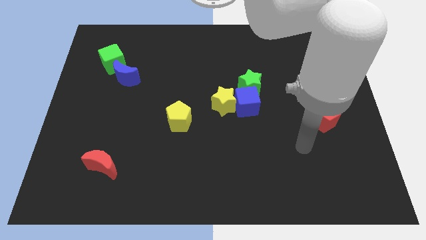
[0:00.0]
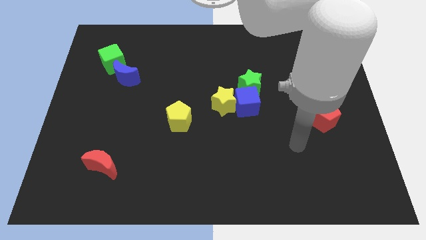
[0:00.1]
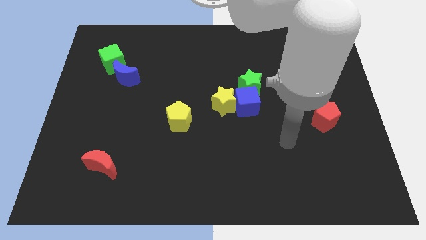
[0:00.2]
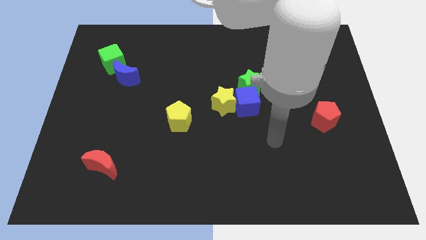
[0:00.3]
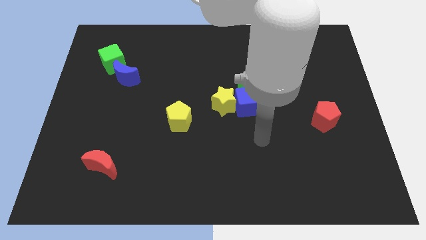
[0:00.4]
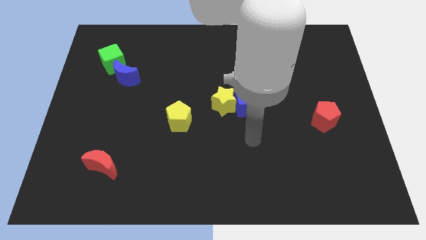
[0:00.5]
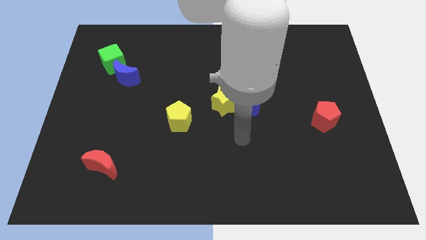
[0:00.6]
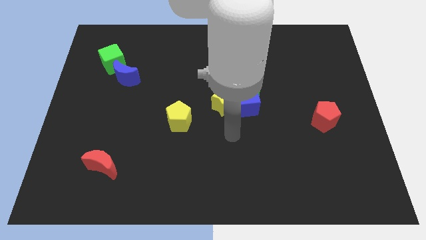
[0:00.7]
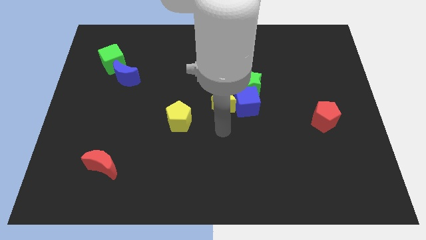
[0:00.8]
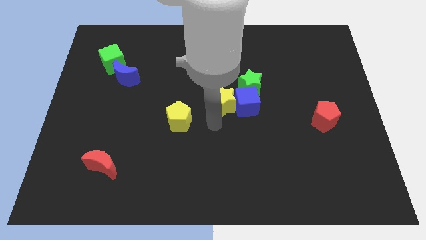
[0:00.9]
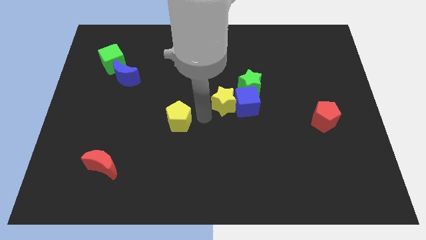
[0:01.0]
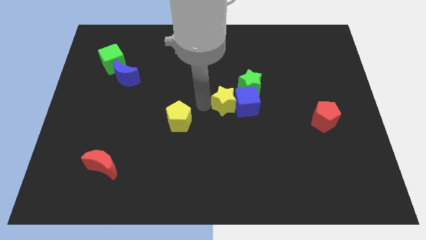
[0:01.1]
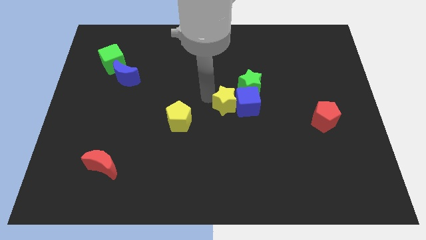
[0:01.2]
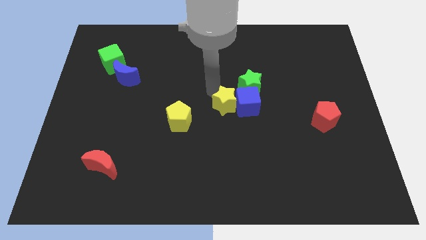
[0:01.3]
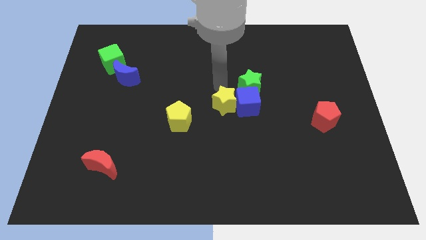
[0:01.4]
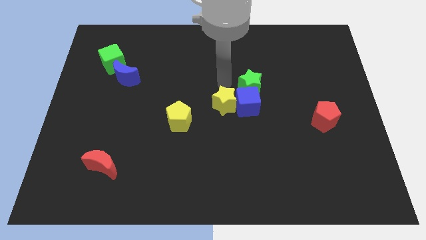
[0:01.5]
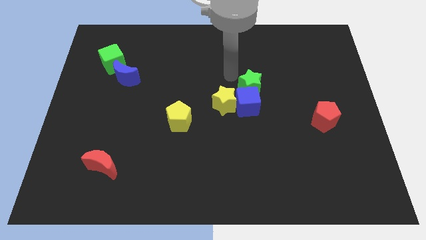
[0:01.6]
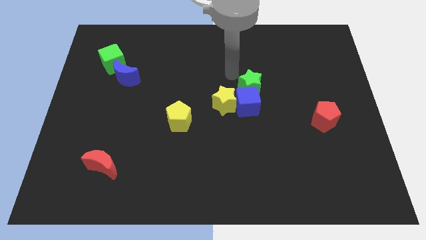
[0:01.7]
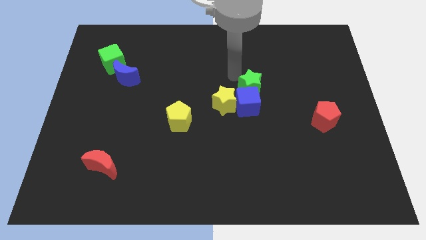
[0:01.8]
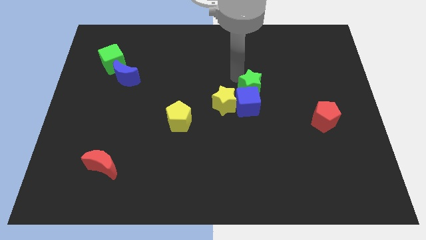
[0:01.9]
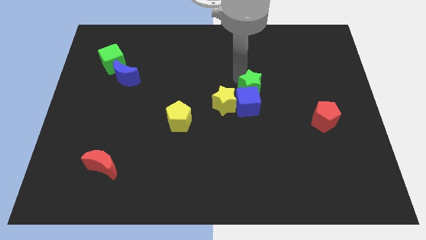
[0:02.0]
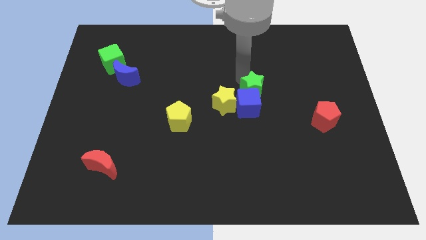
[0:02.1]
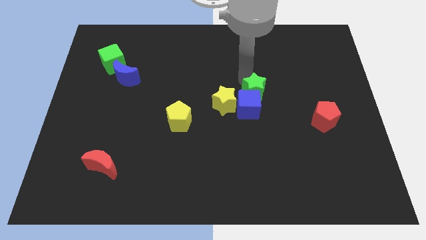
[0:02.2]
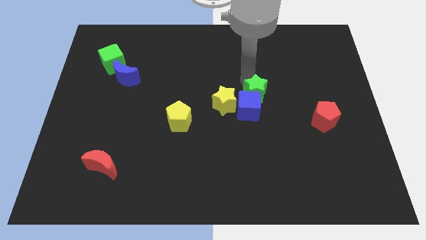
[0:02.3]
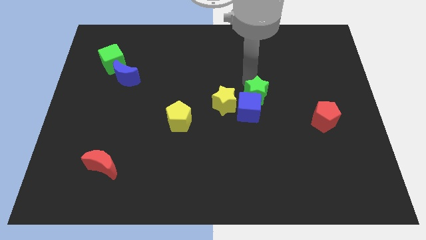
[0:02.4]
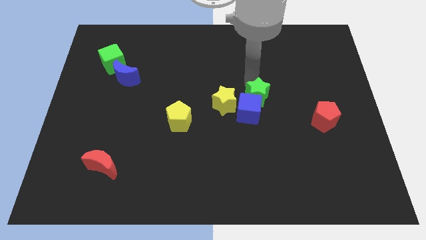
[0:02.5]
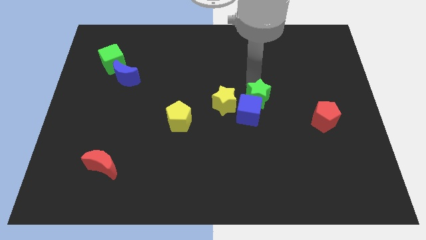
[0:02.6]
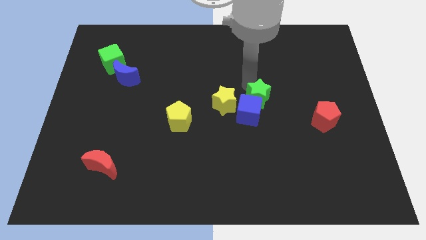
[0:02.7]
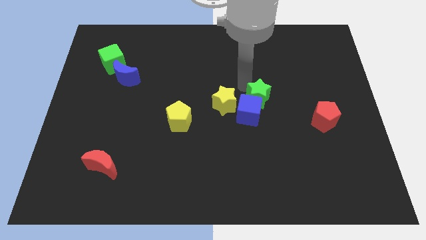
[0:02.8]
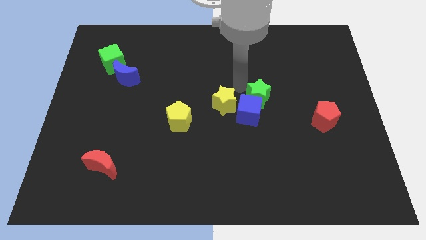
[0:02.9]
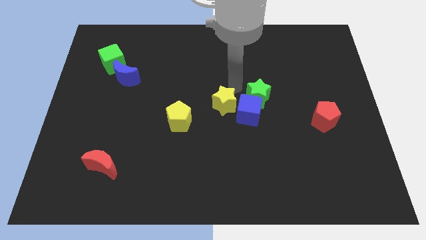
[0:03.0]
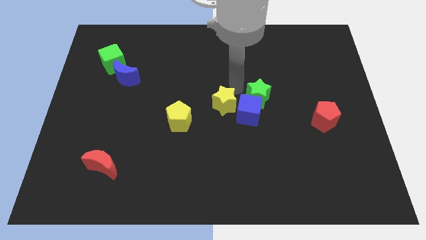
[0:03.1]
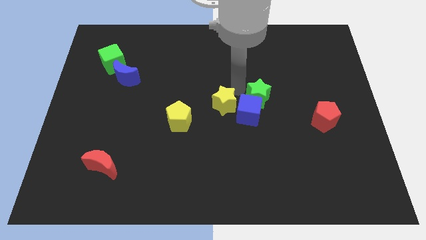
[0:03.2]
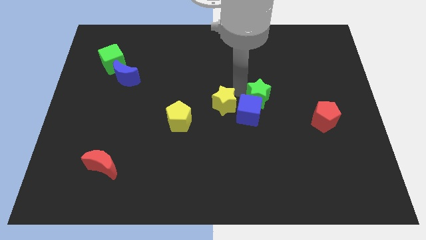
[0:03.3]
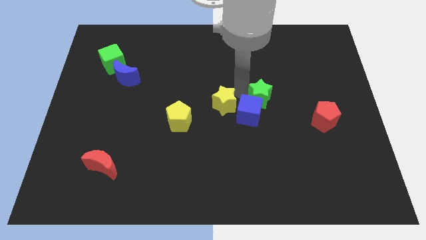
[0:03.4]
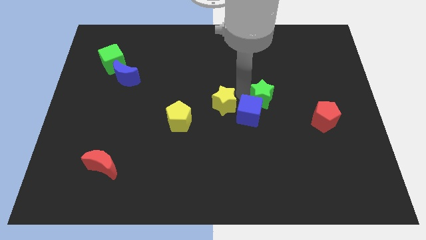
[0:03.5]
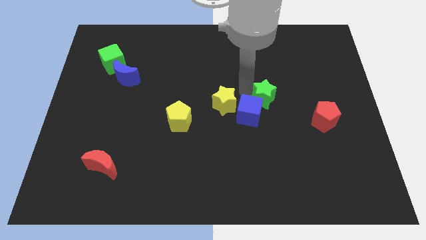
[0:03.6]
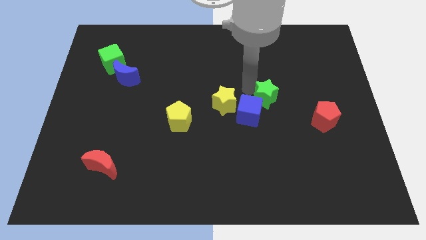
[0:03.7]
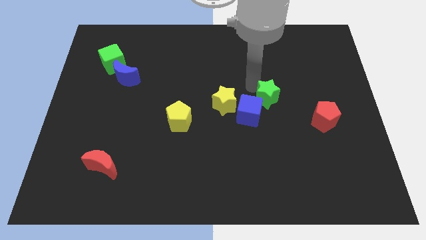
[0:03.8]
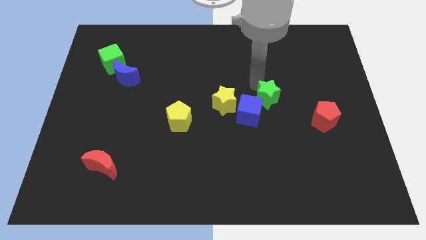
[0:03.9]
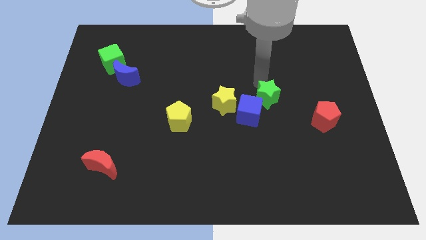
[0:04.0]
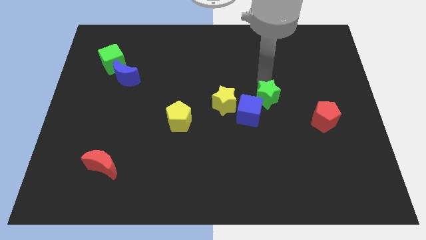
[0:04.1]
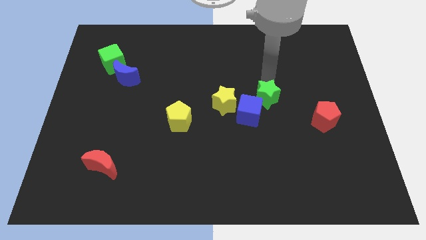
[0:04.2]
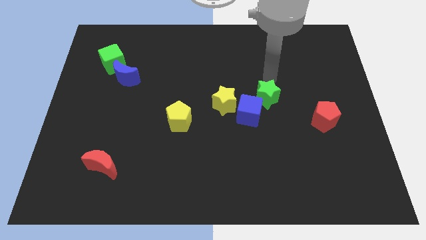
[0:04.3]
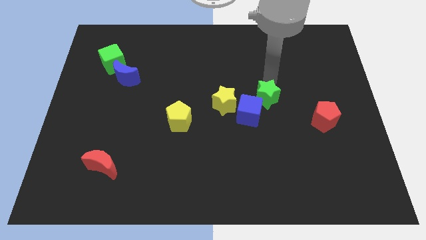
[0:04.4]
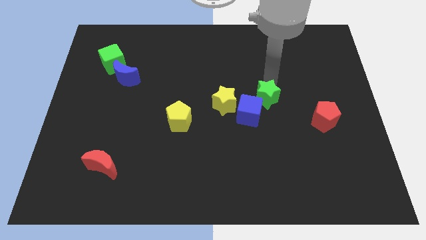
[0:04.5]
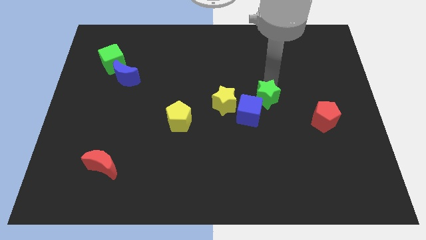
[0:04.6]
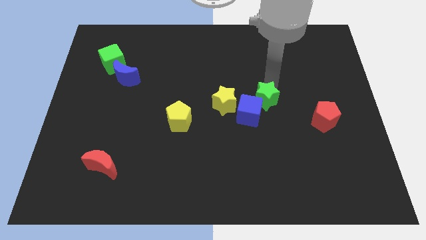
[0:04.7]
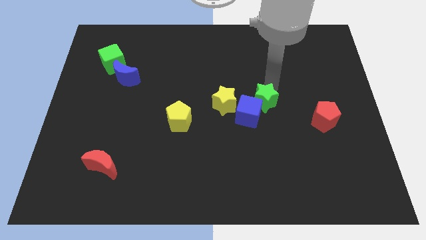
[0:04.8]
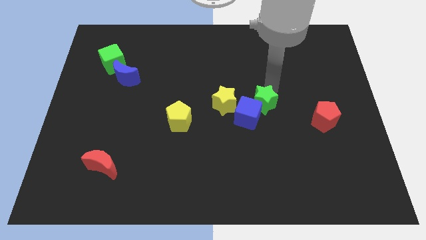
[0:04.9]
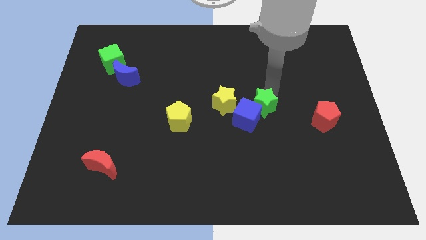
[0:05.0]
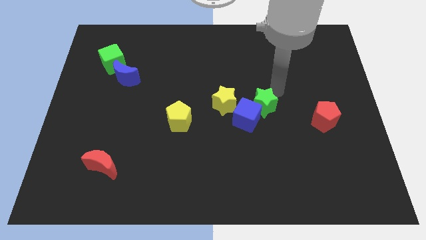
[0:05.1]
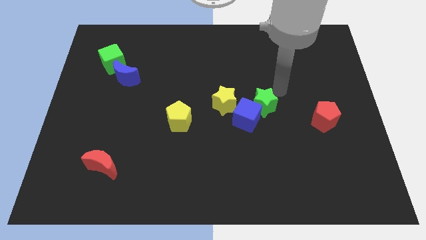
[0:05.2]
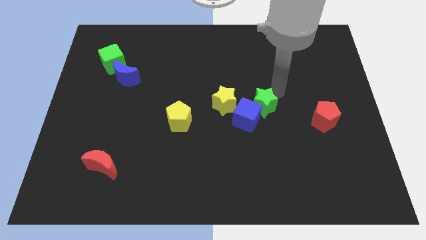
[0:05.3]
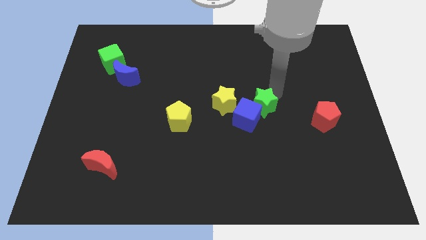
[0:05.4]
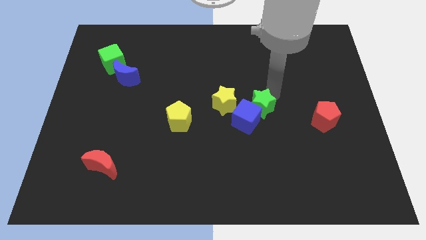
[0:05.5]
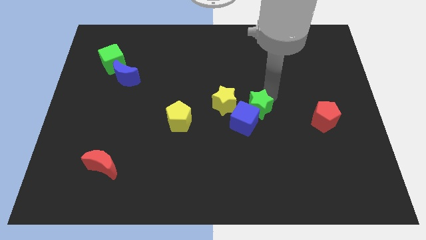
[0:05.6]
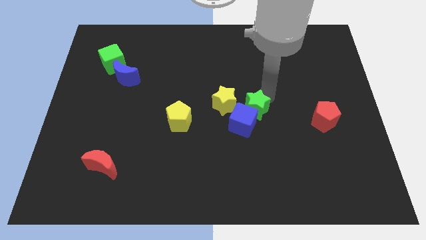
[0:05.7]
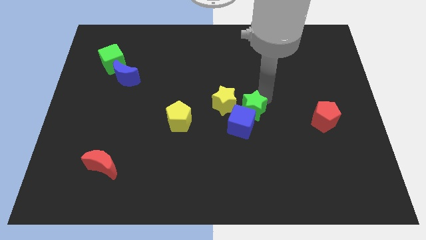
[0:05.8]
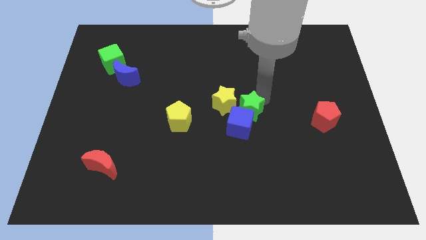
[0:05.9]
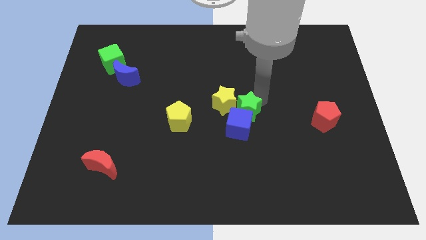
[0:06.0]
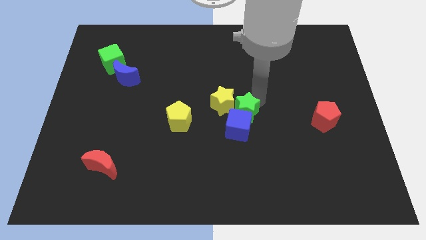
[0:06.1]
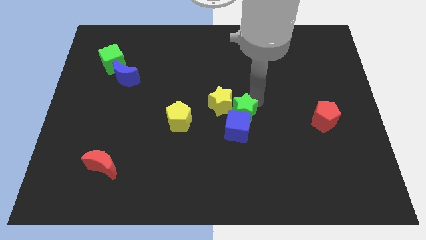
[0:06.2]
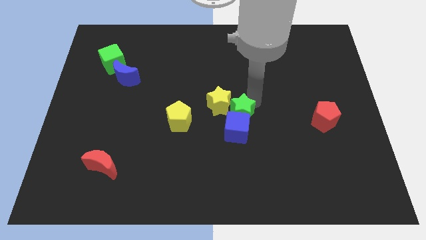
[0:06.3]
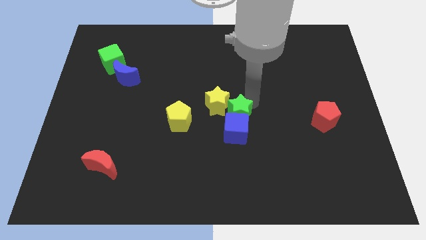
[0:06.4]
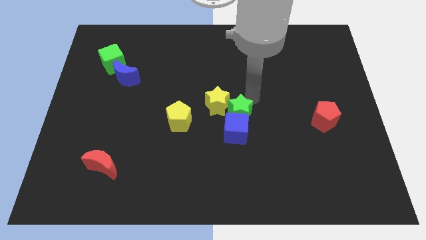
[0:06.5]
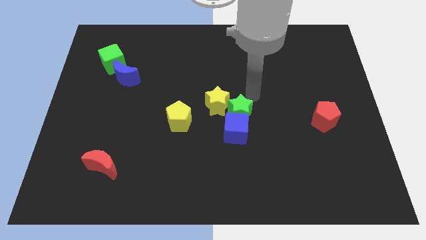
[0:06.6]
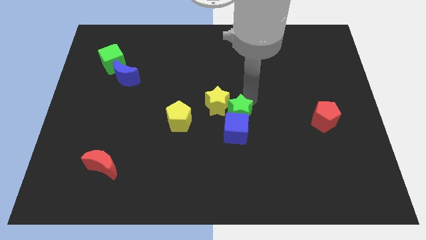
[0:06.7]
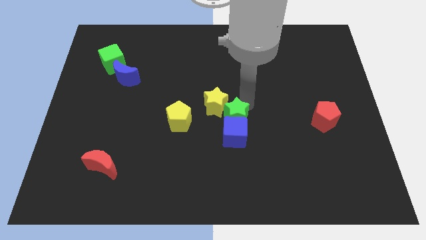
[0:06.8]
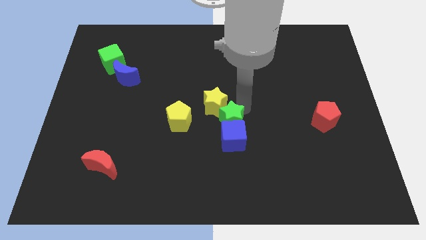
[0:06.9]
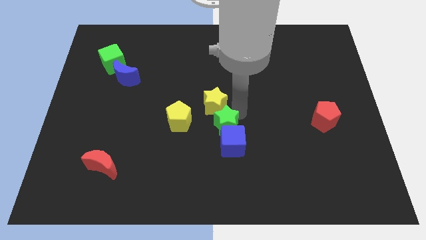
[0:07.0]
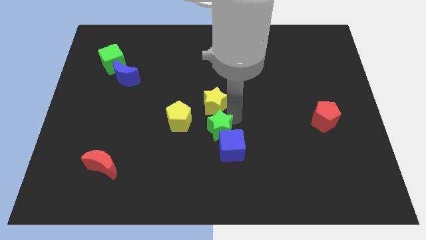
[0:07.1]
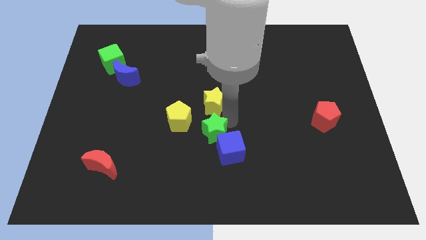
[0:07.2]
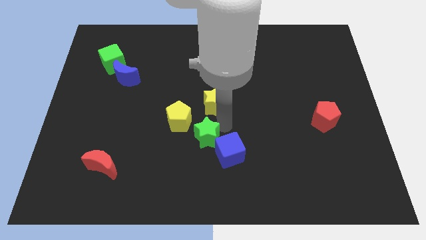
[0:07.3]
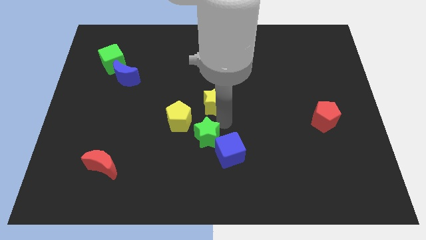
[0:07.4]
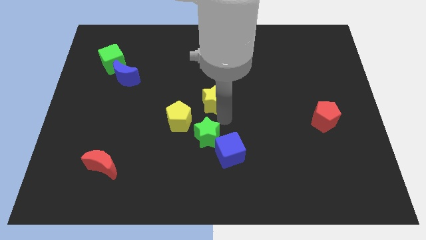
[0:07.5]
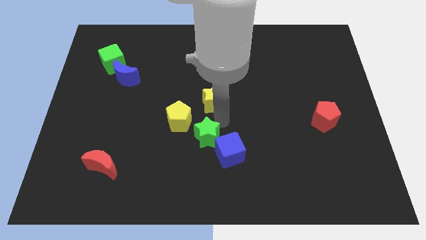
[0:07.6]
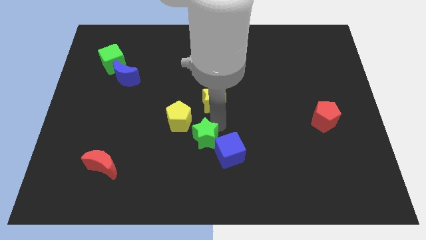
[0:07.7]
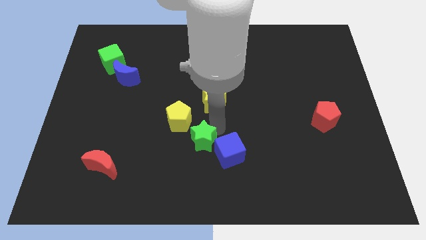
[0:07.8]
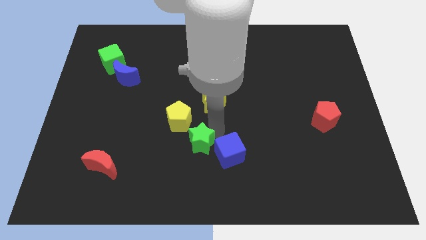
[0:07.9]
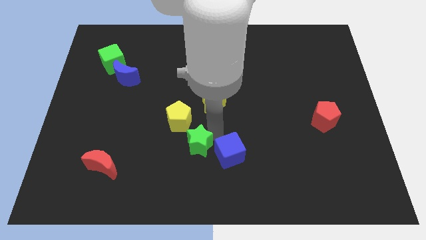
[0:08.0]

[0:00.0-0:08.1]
slide the green star below the yellow pentagon
